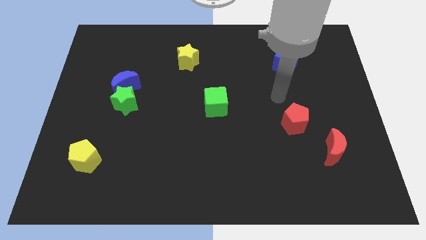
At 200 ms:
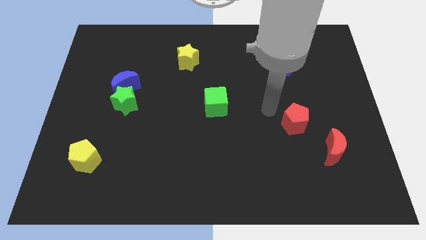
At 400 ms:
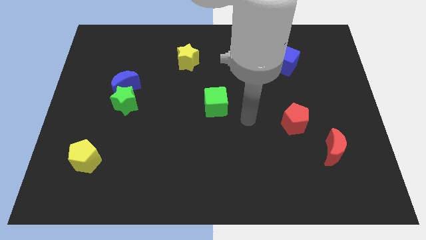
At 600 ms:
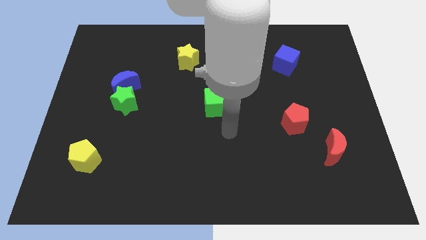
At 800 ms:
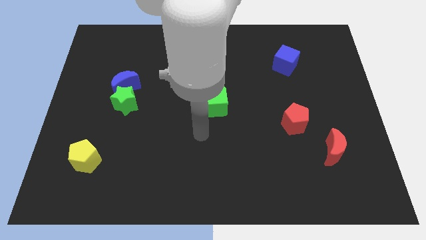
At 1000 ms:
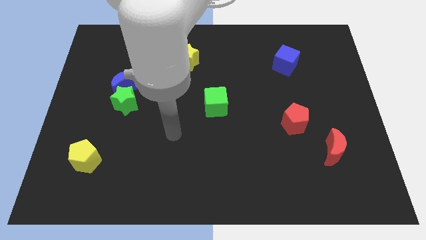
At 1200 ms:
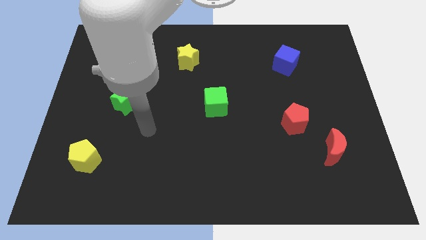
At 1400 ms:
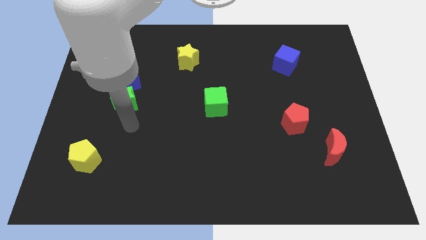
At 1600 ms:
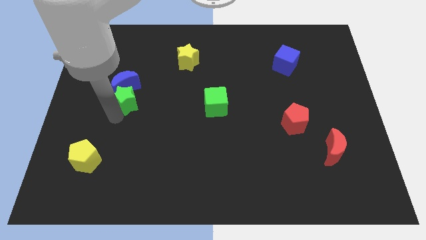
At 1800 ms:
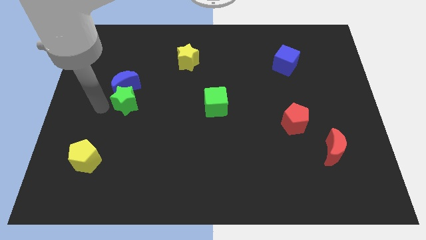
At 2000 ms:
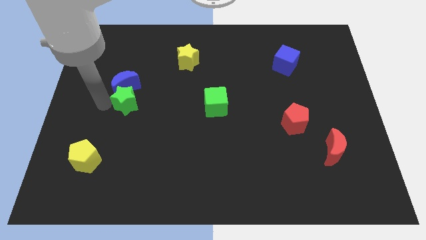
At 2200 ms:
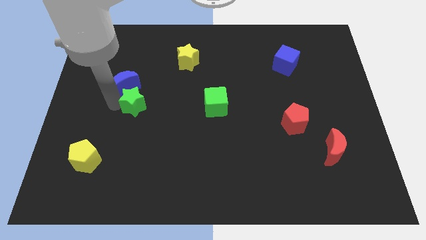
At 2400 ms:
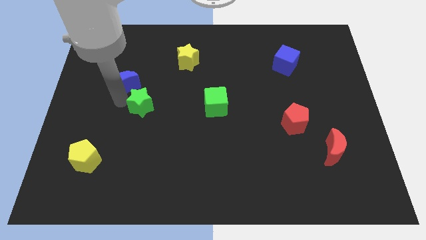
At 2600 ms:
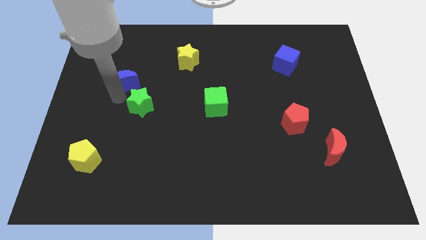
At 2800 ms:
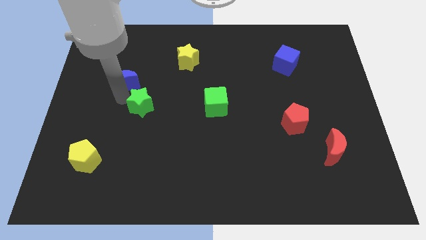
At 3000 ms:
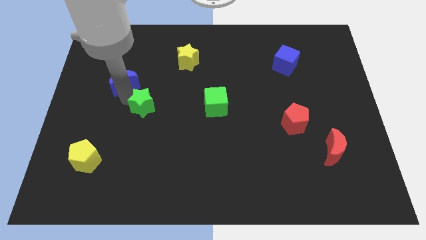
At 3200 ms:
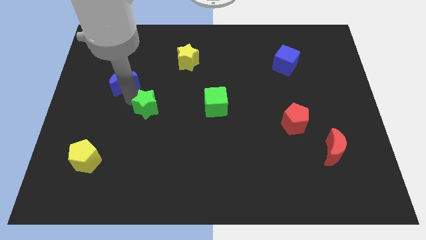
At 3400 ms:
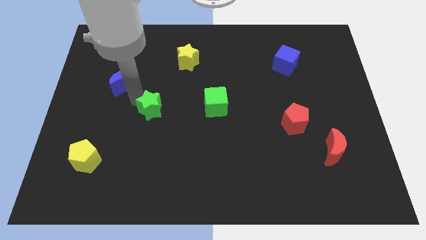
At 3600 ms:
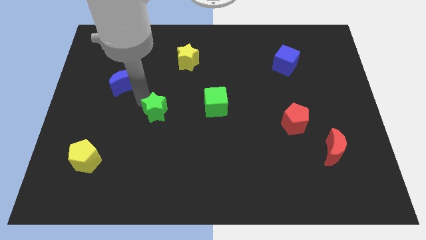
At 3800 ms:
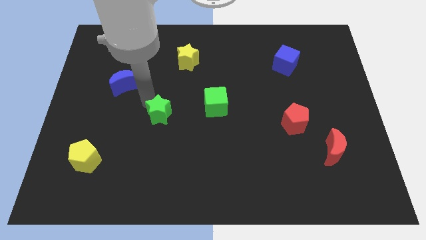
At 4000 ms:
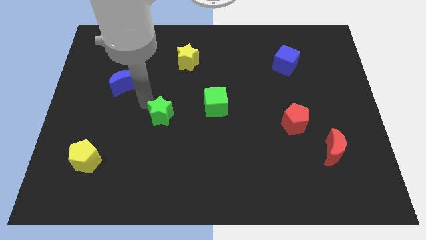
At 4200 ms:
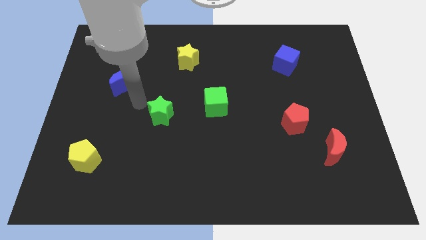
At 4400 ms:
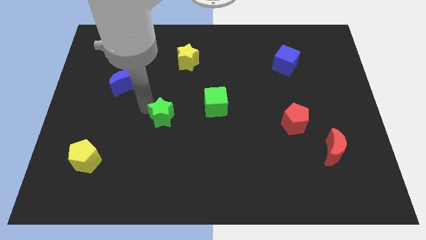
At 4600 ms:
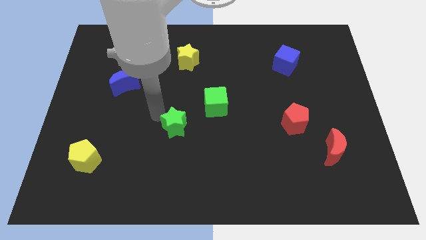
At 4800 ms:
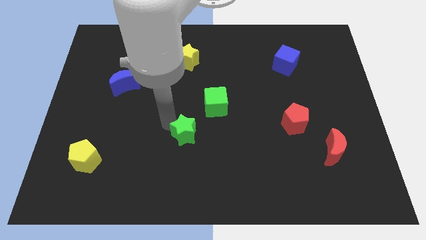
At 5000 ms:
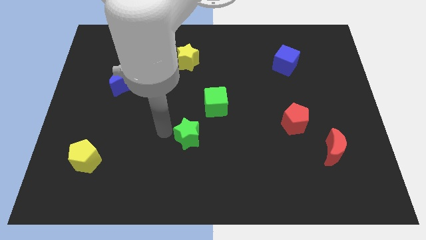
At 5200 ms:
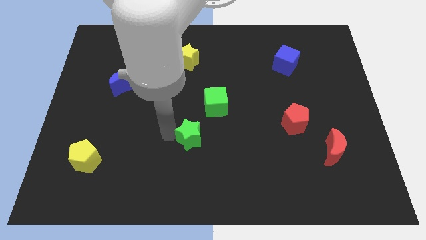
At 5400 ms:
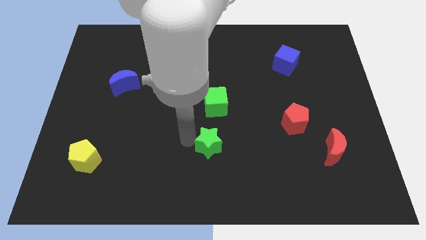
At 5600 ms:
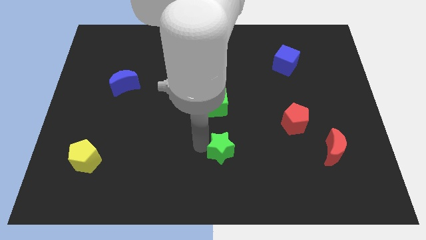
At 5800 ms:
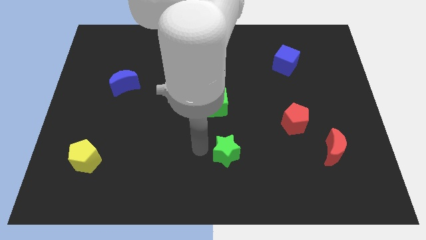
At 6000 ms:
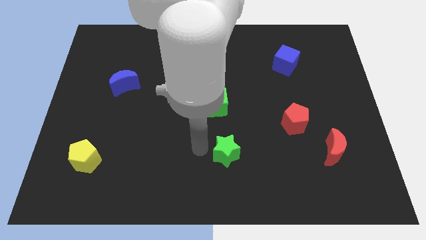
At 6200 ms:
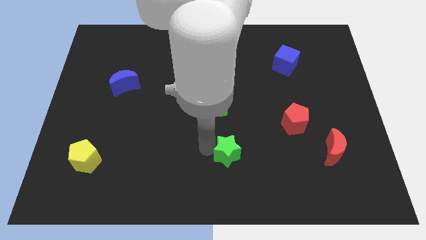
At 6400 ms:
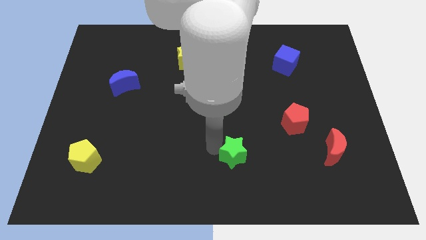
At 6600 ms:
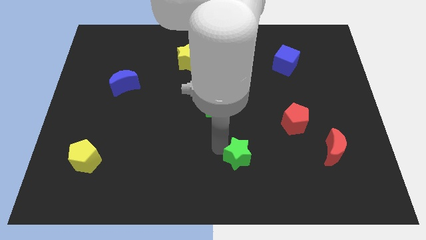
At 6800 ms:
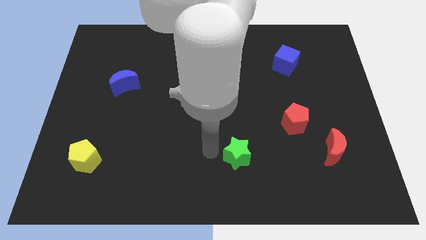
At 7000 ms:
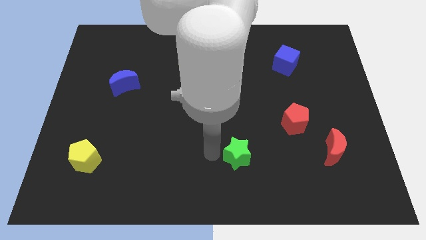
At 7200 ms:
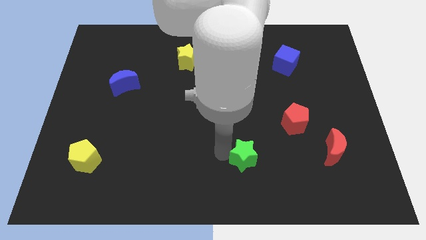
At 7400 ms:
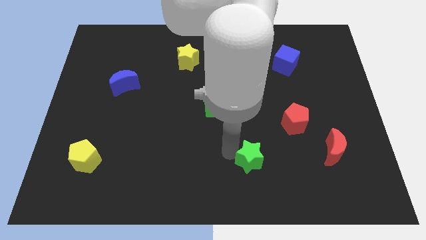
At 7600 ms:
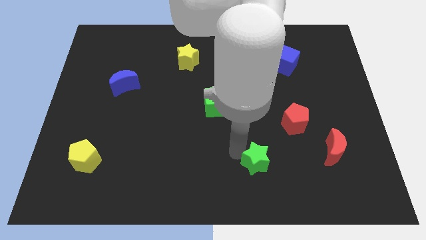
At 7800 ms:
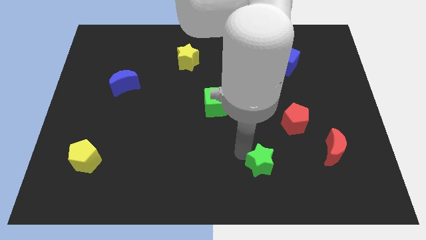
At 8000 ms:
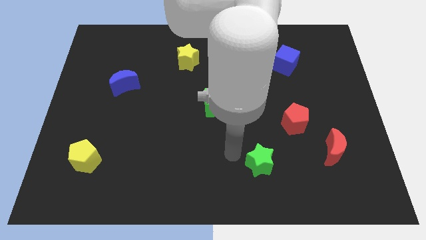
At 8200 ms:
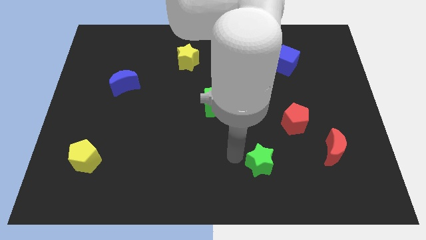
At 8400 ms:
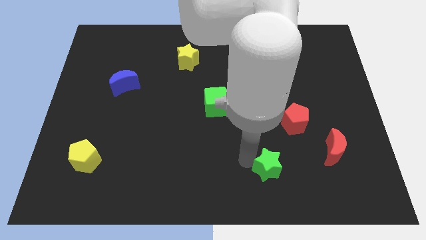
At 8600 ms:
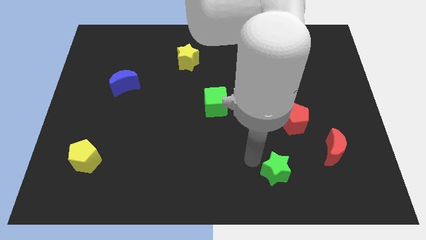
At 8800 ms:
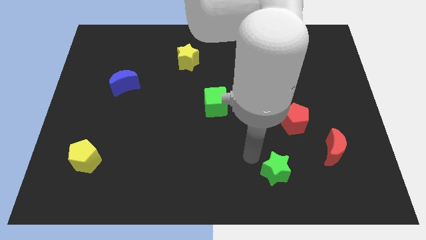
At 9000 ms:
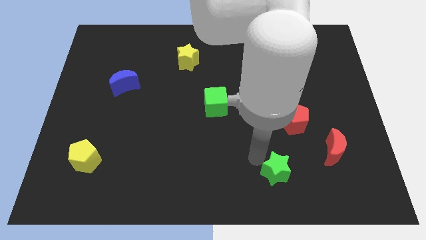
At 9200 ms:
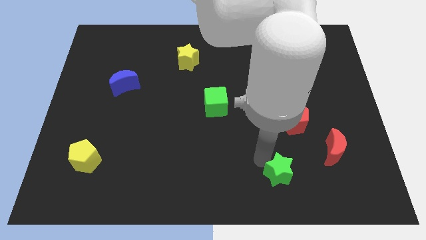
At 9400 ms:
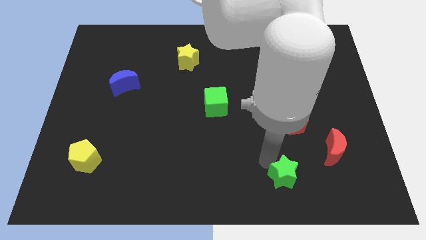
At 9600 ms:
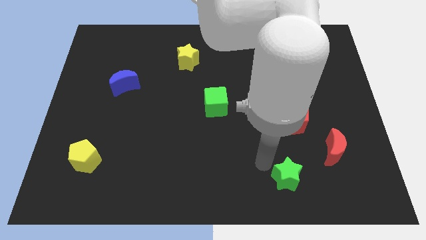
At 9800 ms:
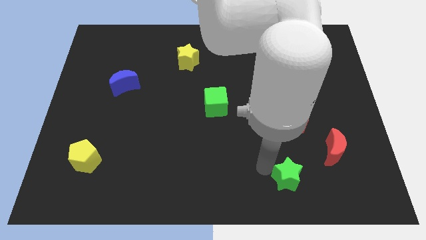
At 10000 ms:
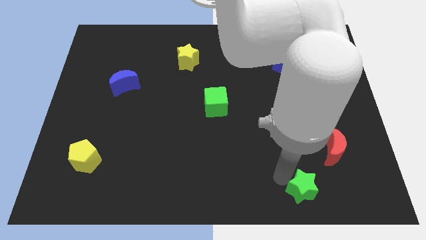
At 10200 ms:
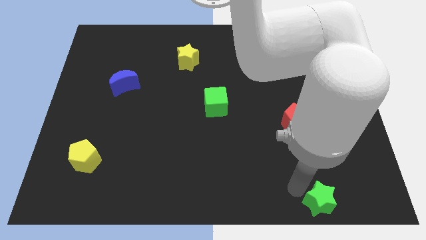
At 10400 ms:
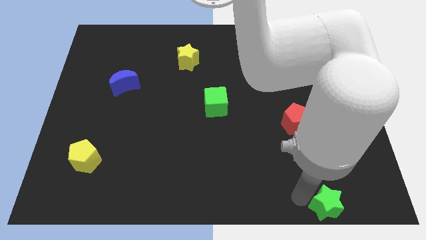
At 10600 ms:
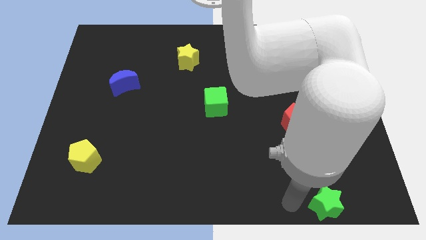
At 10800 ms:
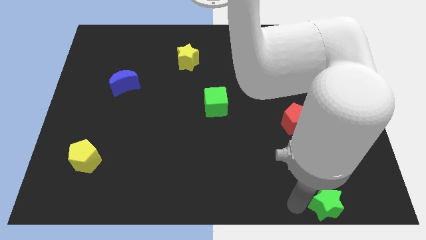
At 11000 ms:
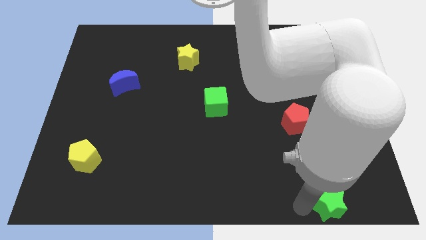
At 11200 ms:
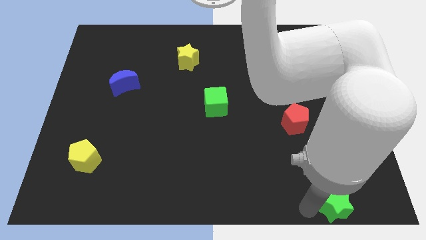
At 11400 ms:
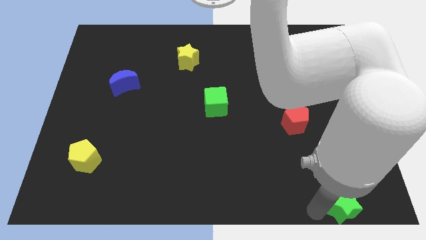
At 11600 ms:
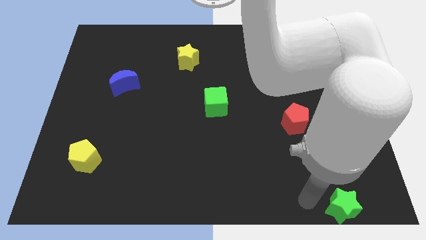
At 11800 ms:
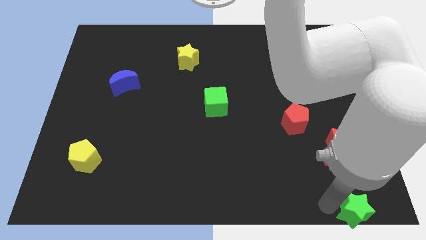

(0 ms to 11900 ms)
put the green star to the lower right corner
